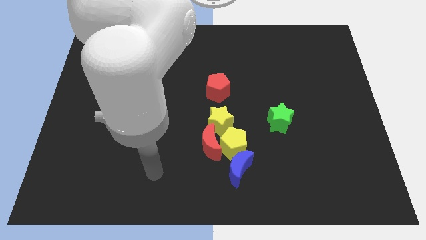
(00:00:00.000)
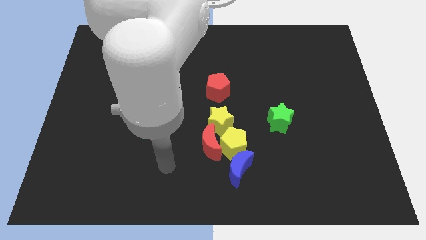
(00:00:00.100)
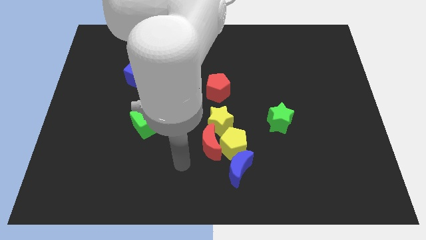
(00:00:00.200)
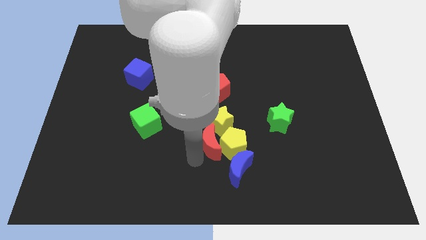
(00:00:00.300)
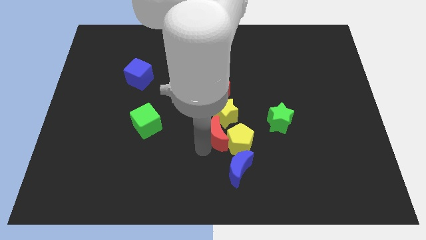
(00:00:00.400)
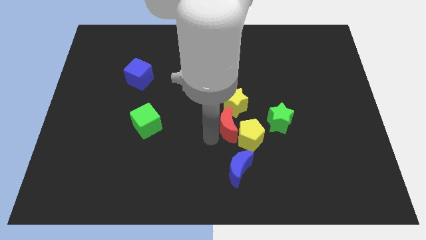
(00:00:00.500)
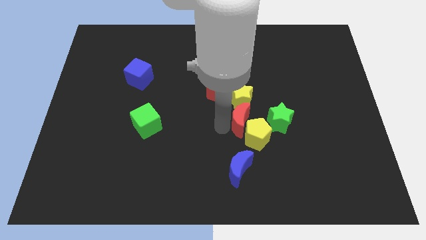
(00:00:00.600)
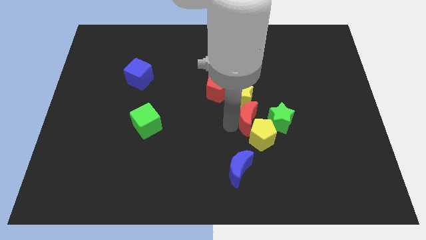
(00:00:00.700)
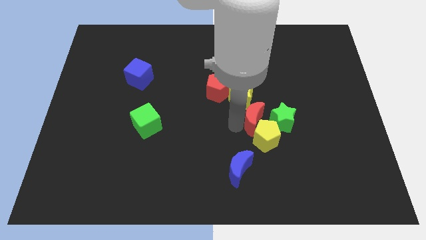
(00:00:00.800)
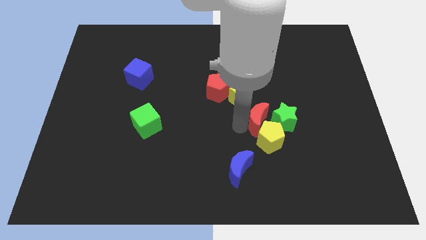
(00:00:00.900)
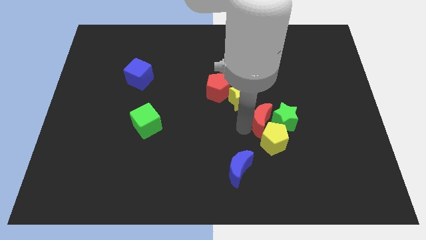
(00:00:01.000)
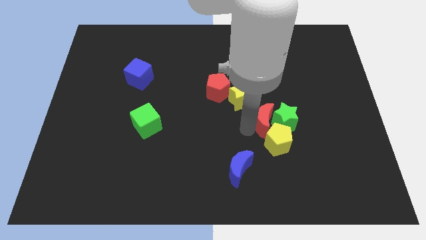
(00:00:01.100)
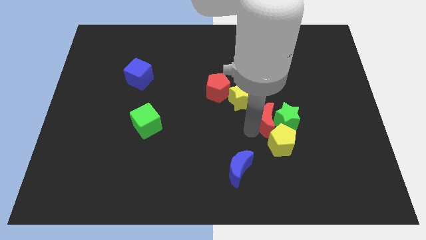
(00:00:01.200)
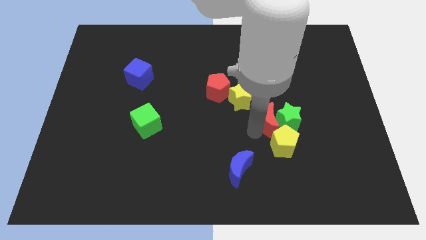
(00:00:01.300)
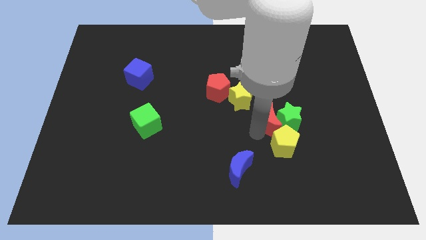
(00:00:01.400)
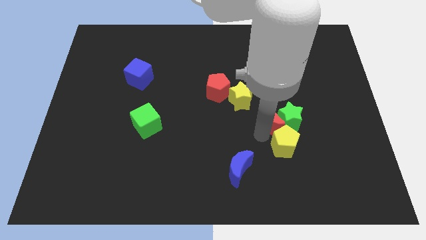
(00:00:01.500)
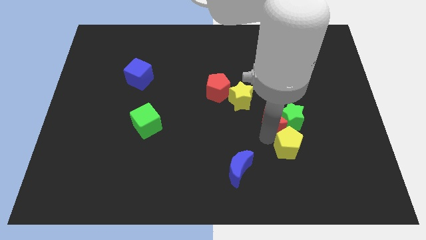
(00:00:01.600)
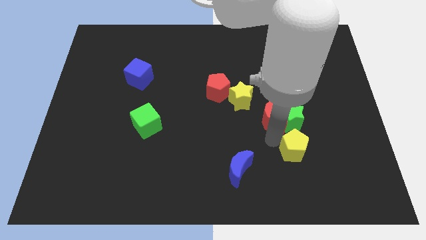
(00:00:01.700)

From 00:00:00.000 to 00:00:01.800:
separate the yellow pentagon from the red moon, blue moon, and yellow star

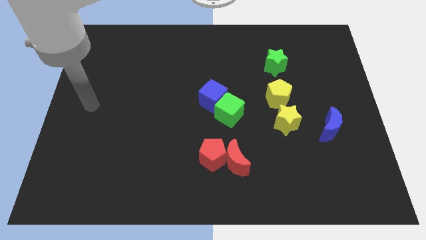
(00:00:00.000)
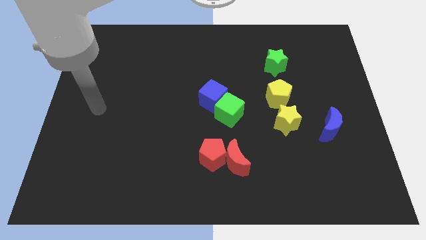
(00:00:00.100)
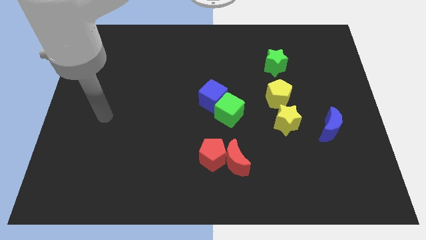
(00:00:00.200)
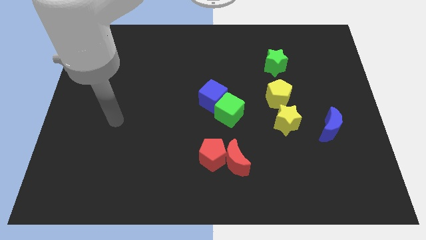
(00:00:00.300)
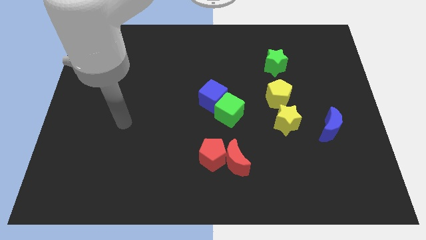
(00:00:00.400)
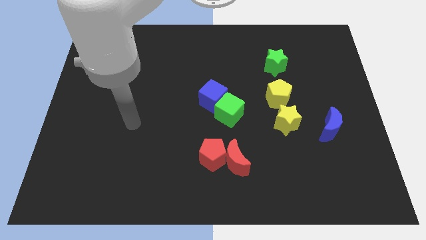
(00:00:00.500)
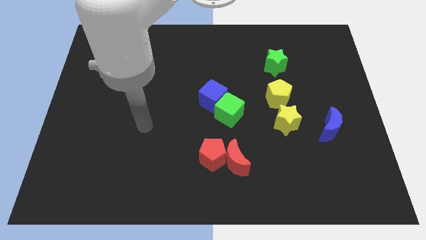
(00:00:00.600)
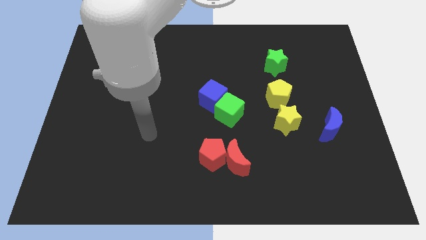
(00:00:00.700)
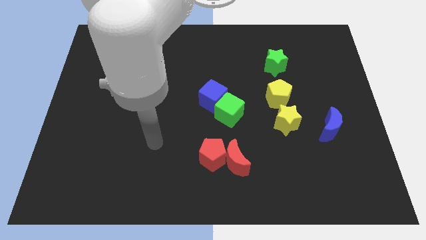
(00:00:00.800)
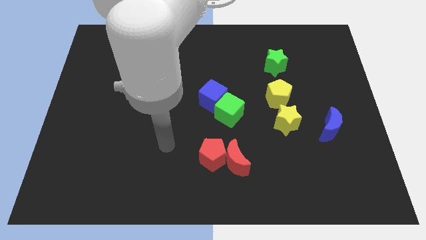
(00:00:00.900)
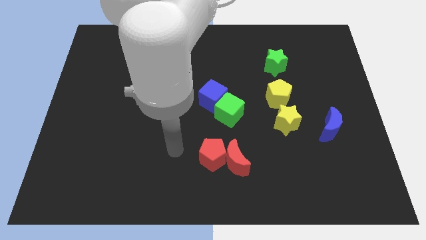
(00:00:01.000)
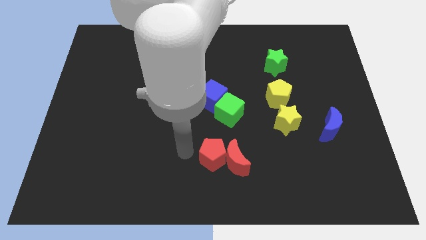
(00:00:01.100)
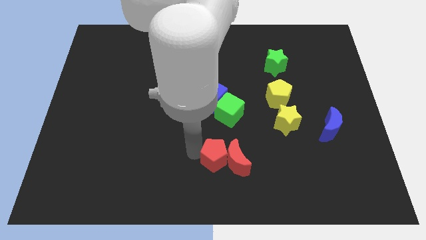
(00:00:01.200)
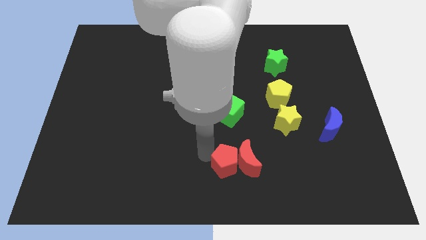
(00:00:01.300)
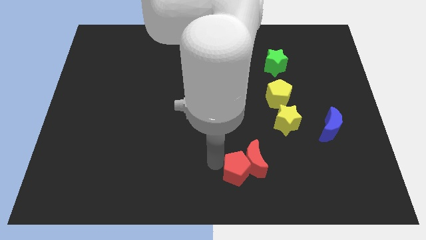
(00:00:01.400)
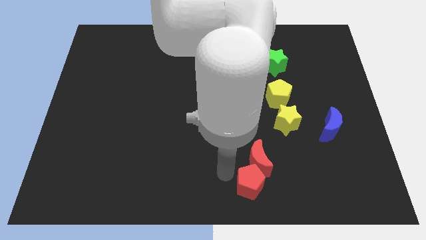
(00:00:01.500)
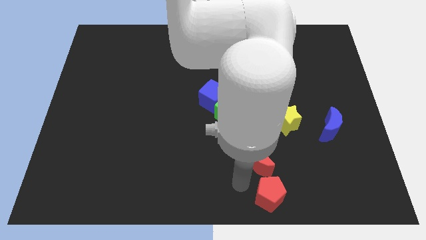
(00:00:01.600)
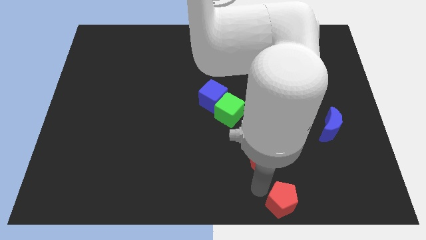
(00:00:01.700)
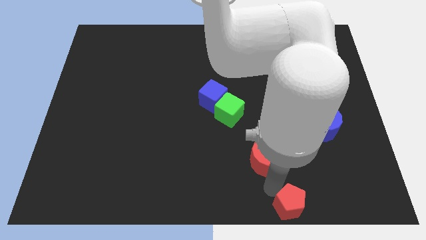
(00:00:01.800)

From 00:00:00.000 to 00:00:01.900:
pull the red moon apart from the red pentagon

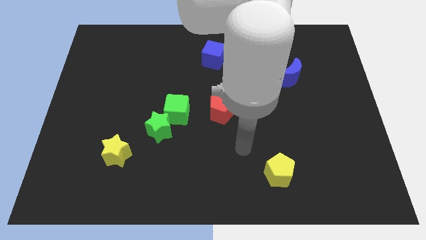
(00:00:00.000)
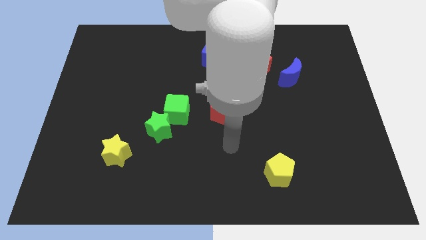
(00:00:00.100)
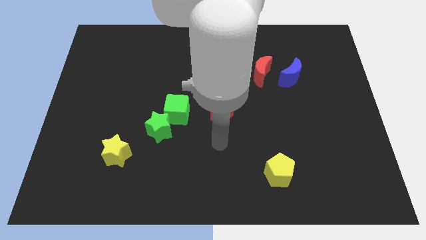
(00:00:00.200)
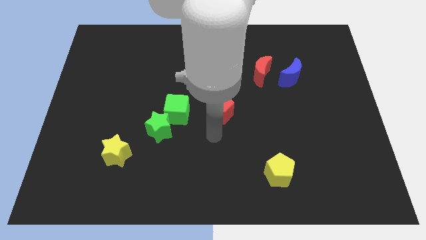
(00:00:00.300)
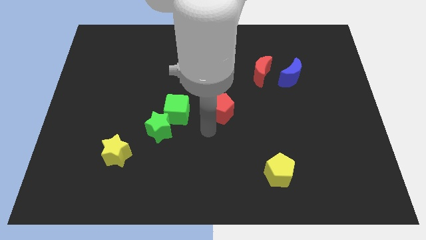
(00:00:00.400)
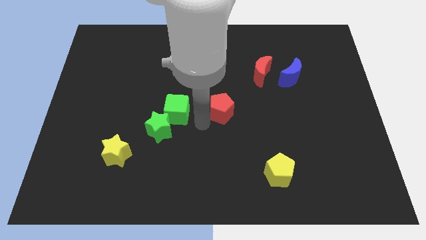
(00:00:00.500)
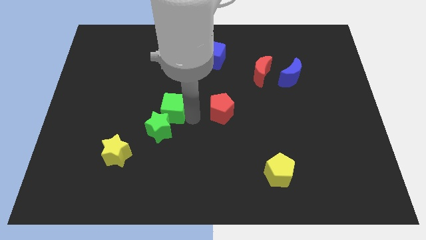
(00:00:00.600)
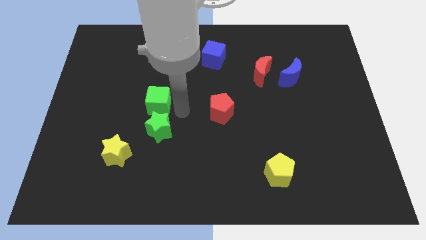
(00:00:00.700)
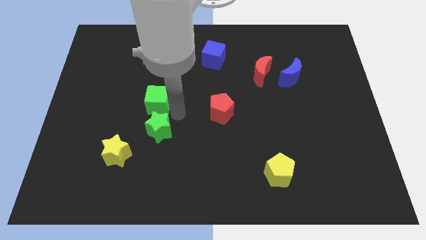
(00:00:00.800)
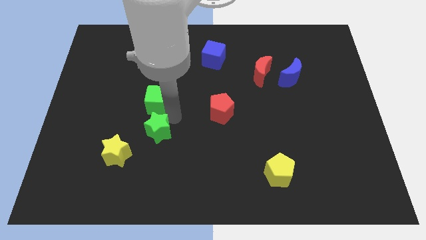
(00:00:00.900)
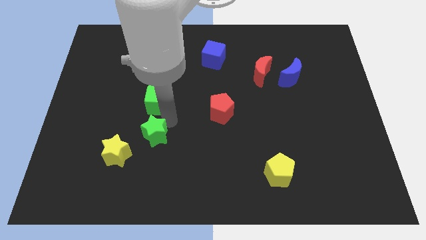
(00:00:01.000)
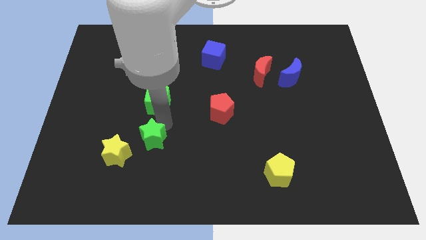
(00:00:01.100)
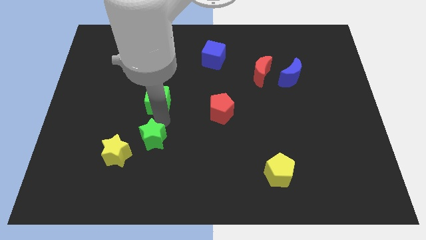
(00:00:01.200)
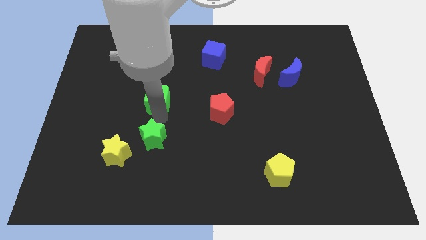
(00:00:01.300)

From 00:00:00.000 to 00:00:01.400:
pull the green star apart from the green cube

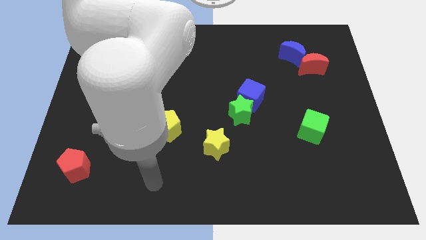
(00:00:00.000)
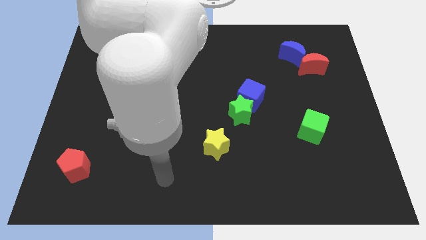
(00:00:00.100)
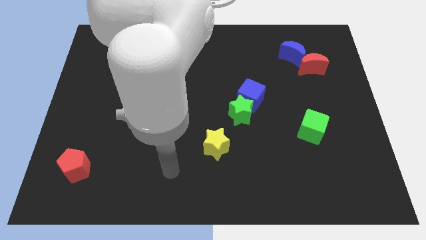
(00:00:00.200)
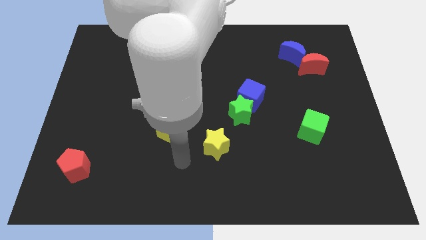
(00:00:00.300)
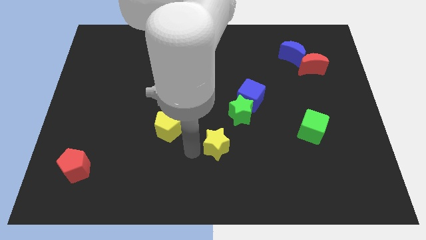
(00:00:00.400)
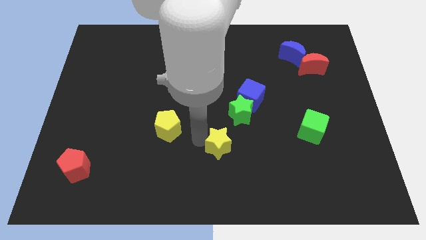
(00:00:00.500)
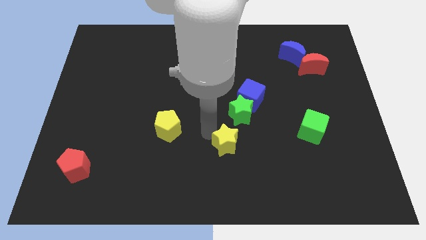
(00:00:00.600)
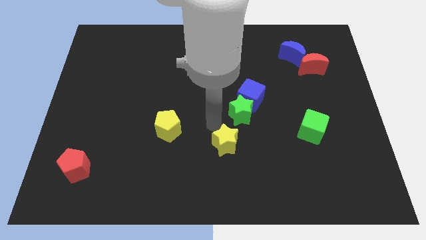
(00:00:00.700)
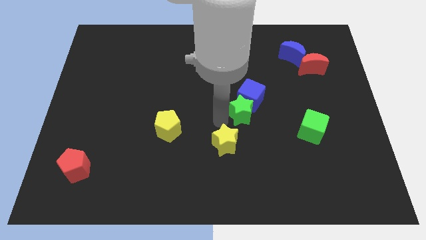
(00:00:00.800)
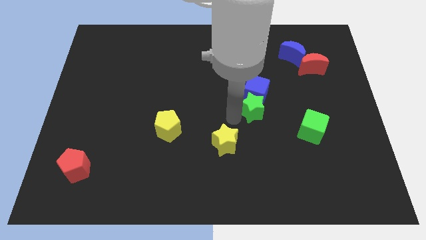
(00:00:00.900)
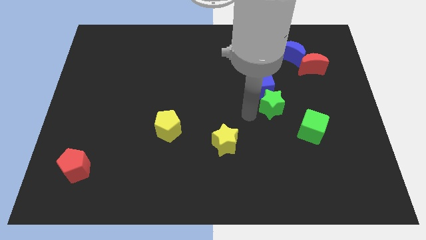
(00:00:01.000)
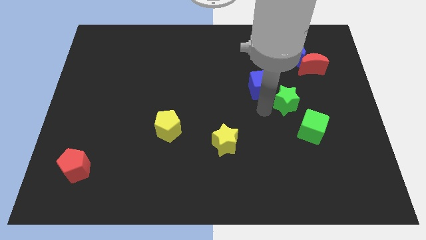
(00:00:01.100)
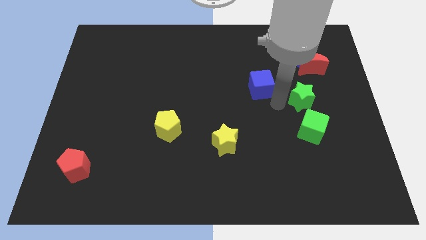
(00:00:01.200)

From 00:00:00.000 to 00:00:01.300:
move the blue cube away from the green star

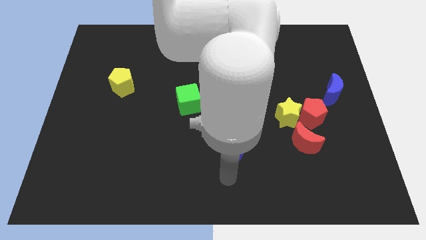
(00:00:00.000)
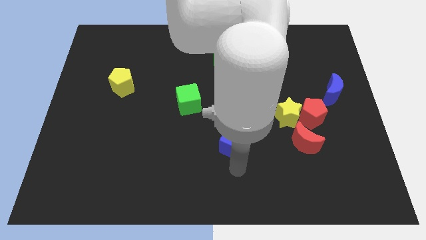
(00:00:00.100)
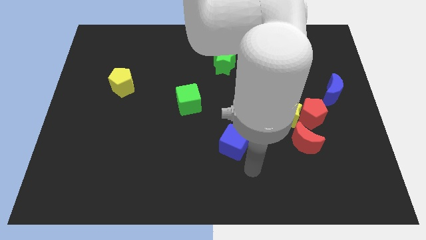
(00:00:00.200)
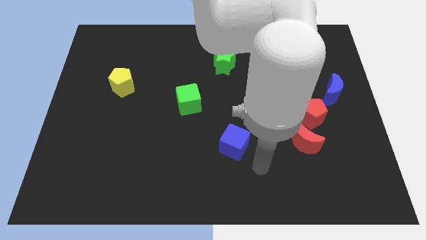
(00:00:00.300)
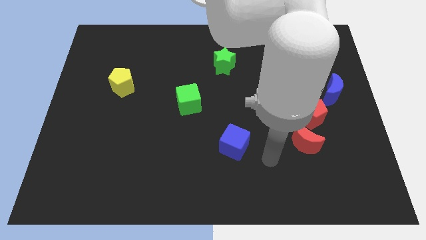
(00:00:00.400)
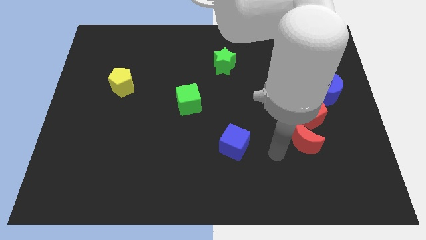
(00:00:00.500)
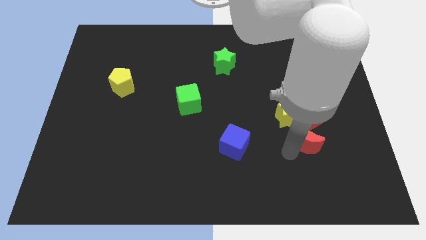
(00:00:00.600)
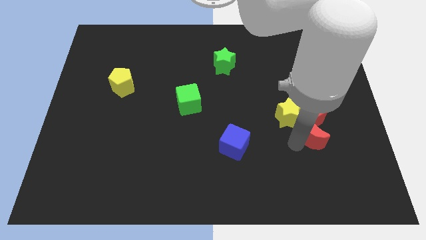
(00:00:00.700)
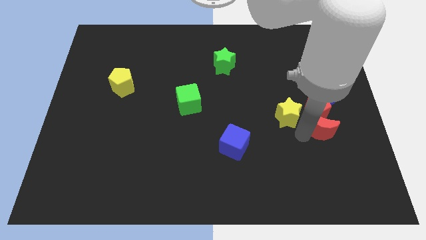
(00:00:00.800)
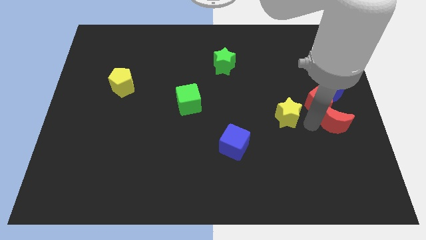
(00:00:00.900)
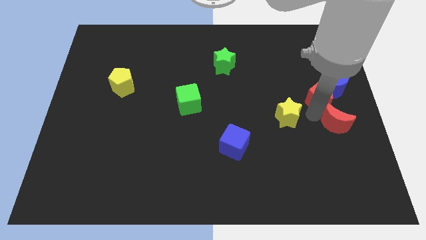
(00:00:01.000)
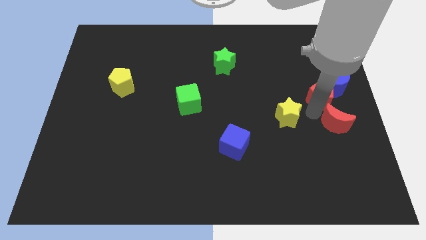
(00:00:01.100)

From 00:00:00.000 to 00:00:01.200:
move the yellow star away from the red pentagon and red moon

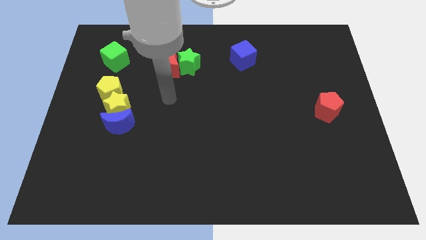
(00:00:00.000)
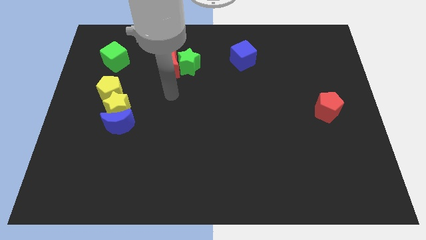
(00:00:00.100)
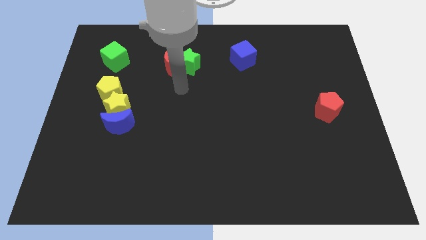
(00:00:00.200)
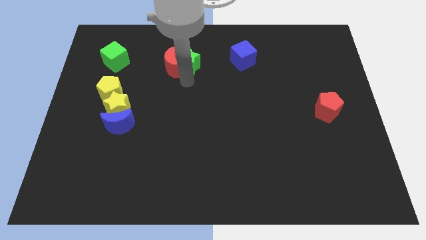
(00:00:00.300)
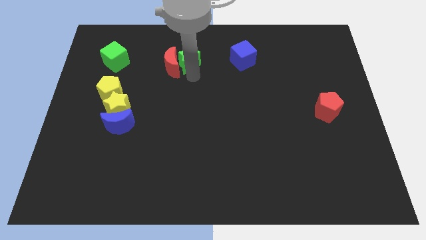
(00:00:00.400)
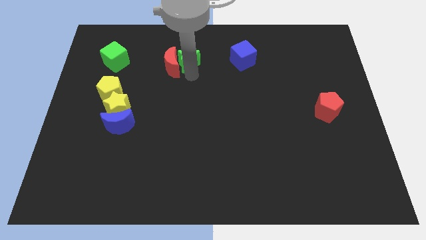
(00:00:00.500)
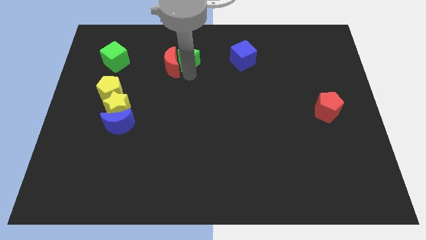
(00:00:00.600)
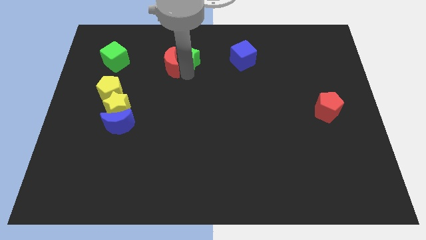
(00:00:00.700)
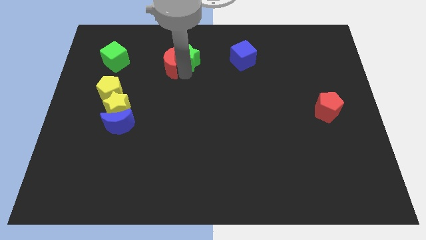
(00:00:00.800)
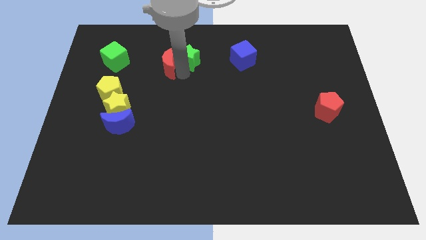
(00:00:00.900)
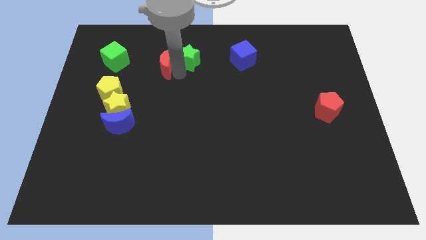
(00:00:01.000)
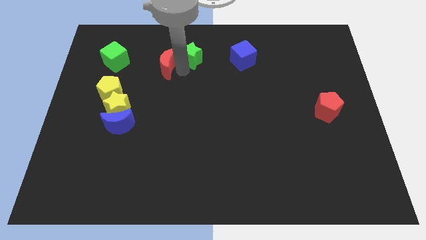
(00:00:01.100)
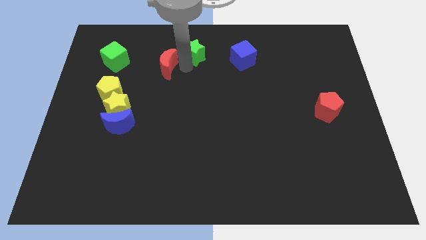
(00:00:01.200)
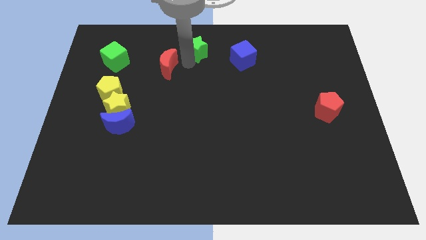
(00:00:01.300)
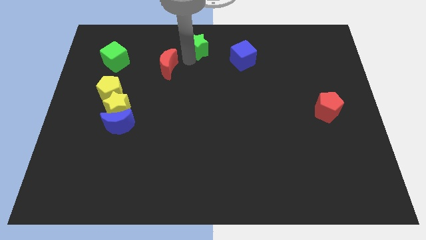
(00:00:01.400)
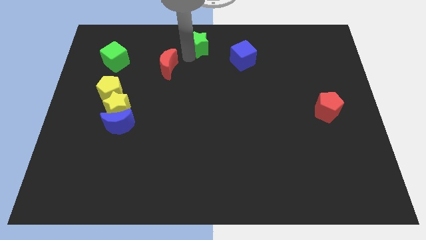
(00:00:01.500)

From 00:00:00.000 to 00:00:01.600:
move the red moon away from the green star
